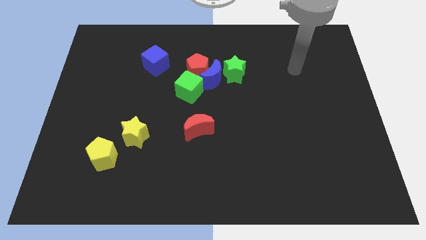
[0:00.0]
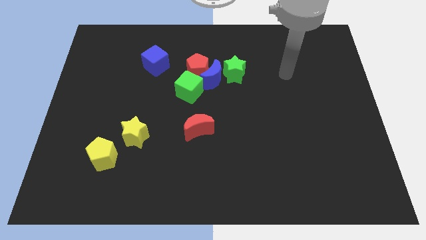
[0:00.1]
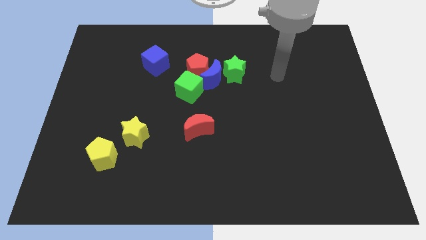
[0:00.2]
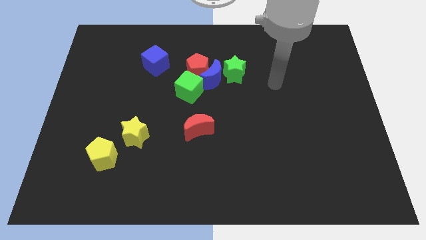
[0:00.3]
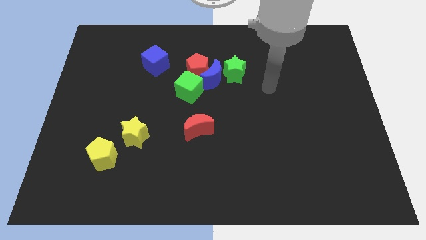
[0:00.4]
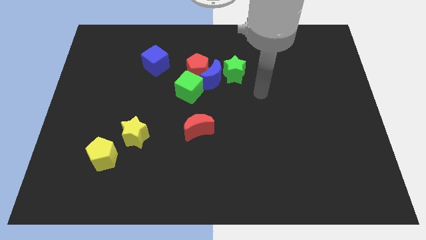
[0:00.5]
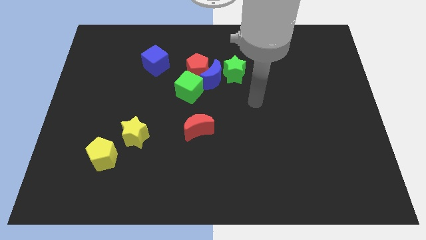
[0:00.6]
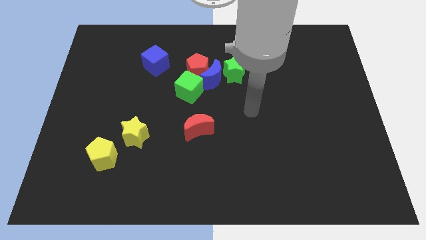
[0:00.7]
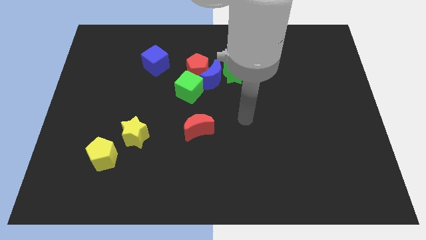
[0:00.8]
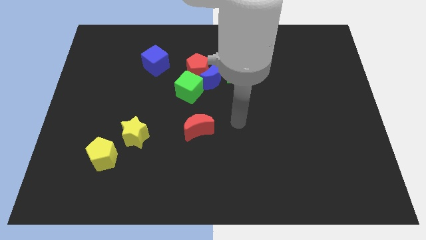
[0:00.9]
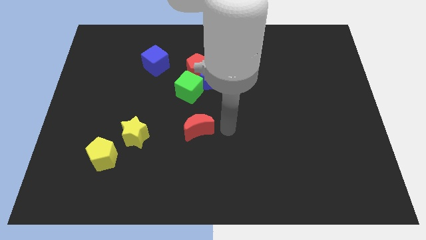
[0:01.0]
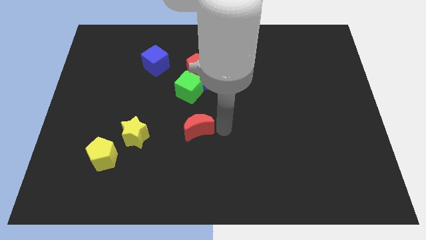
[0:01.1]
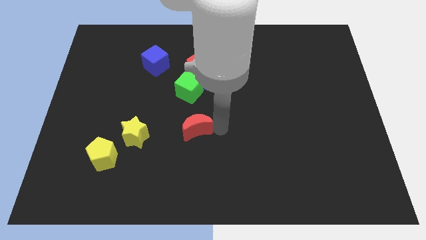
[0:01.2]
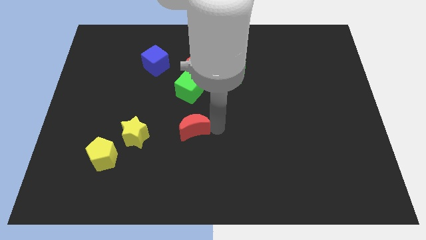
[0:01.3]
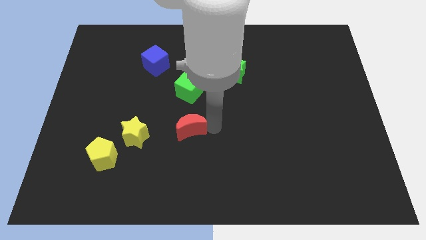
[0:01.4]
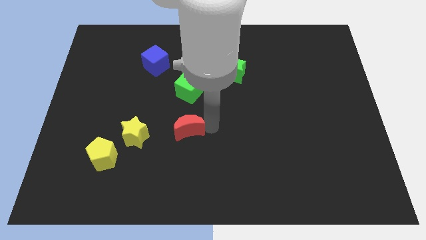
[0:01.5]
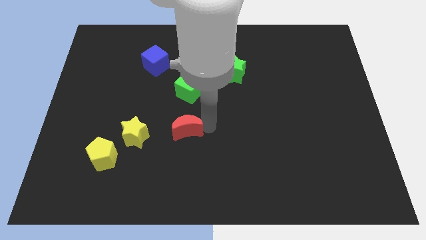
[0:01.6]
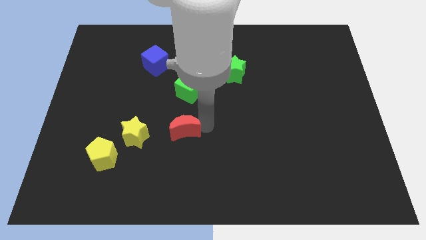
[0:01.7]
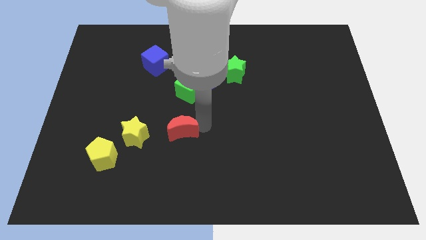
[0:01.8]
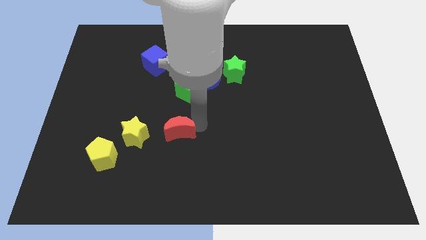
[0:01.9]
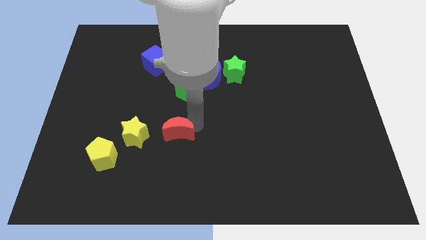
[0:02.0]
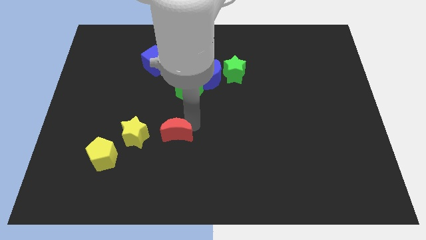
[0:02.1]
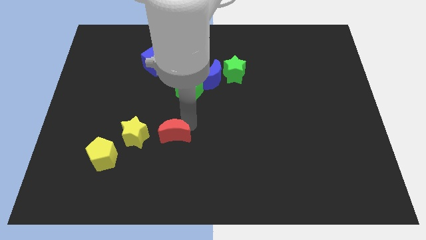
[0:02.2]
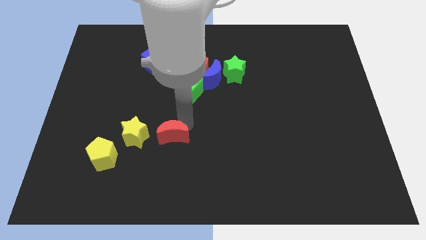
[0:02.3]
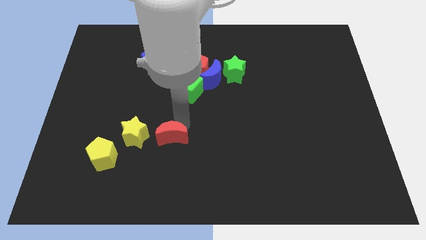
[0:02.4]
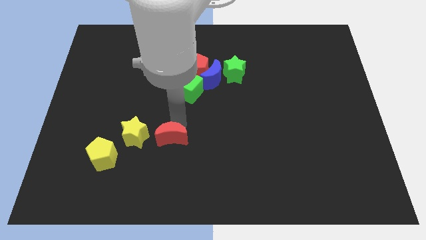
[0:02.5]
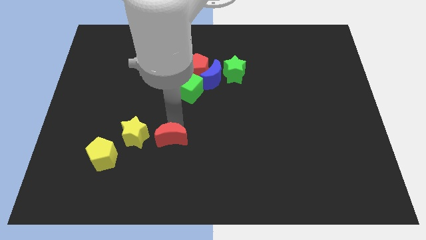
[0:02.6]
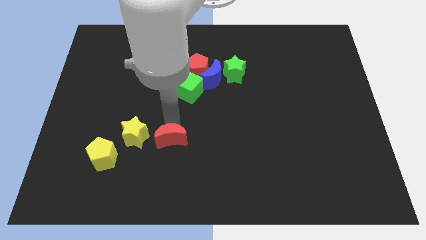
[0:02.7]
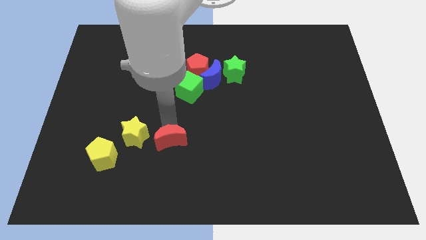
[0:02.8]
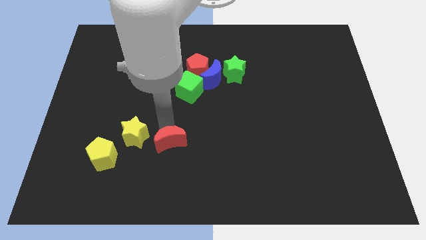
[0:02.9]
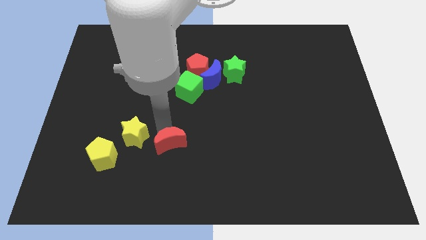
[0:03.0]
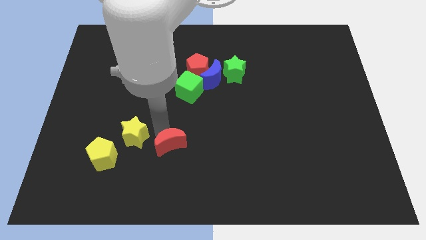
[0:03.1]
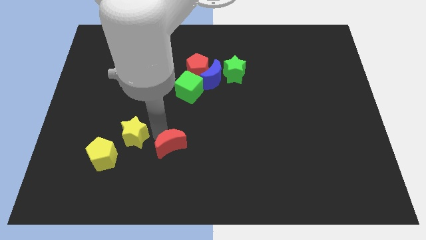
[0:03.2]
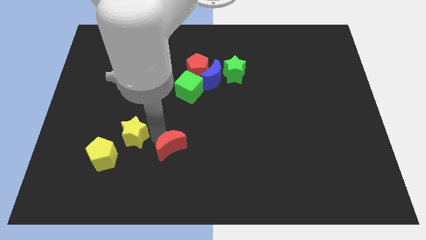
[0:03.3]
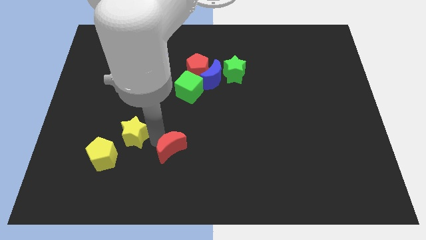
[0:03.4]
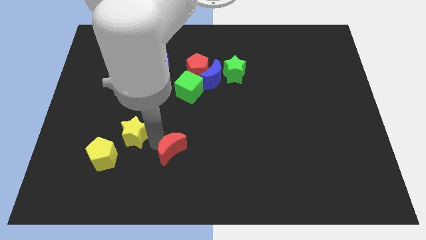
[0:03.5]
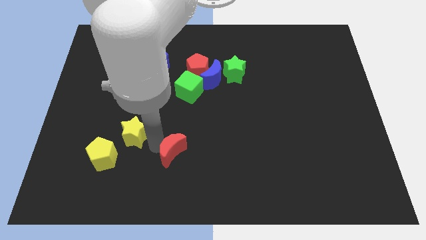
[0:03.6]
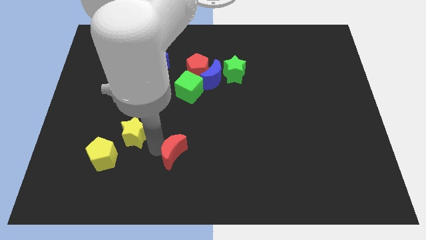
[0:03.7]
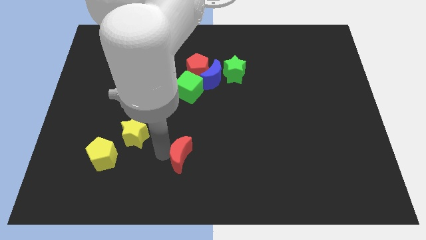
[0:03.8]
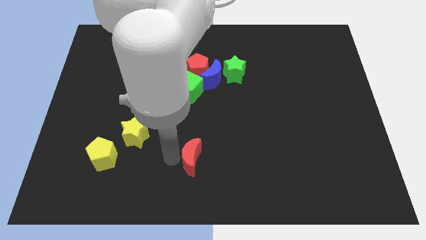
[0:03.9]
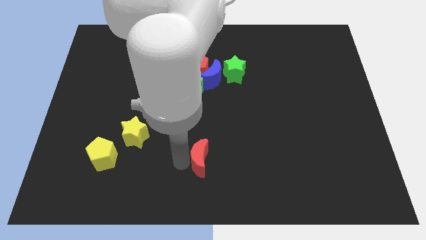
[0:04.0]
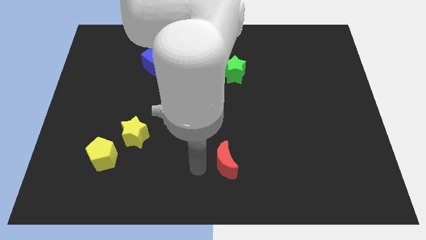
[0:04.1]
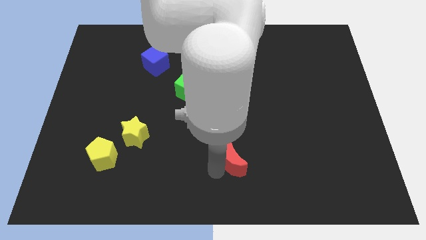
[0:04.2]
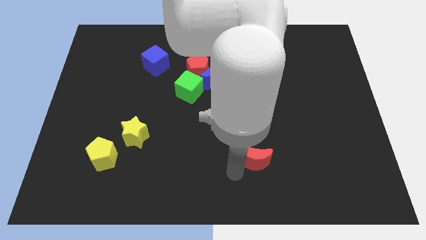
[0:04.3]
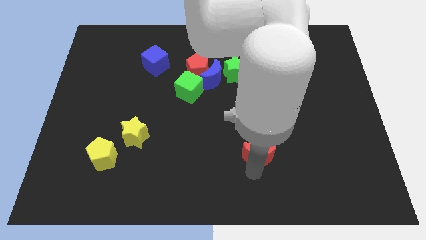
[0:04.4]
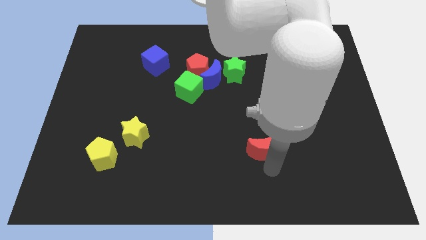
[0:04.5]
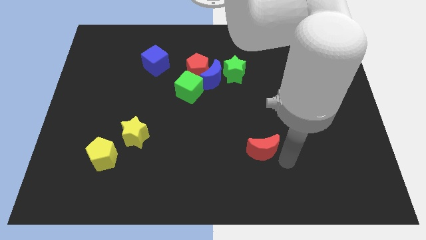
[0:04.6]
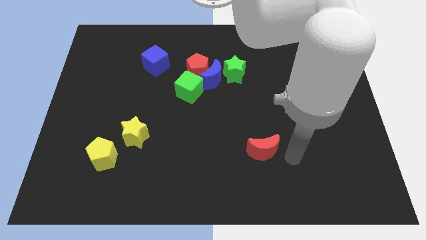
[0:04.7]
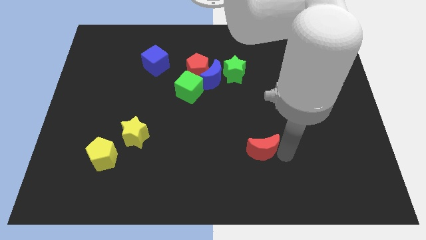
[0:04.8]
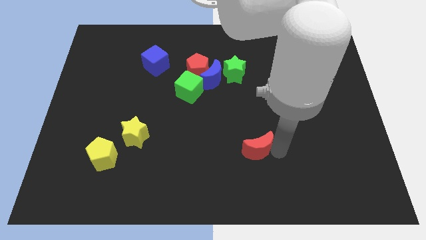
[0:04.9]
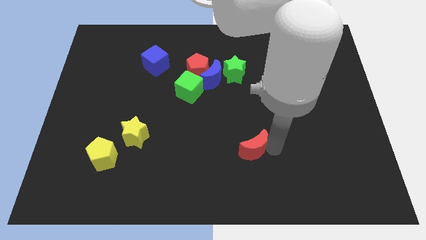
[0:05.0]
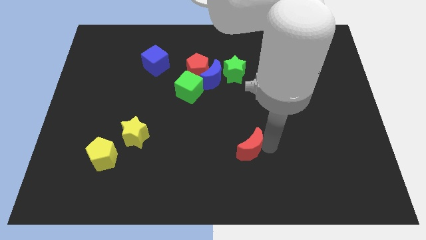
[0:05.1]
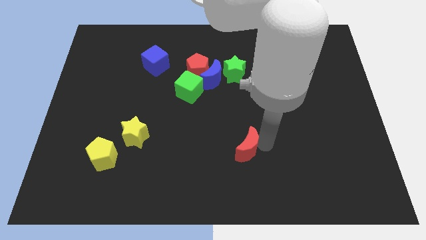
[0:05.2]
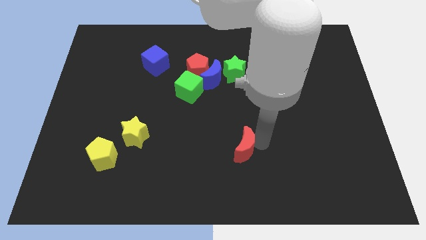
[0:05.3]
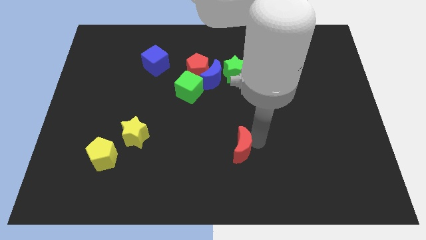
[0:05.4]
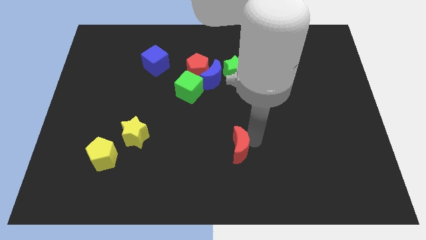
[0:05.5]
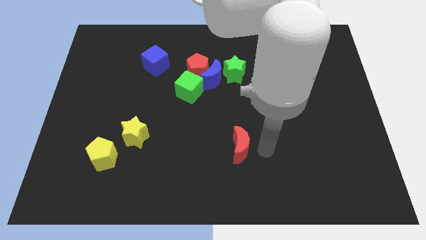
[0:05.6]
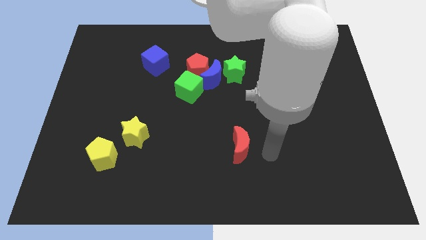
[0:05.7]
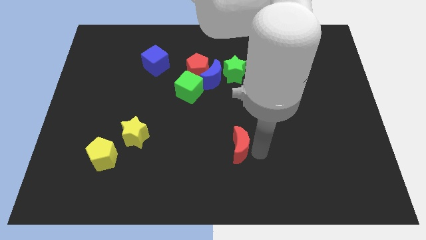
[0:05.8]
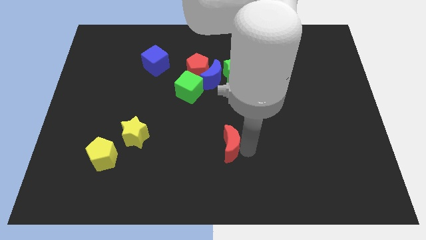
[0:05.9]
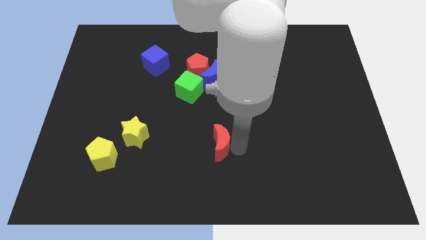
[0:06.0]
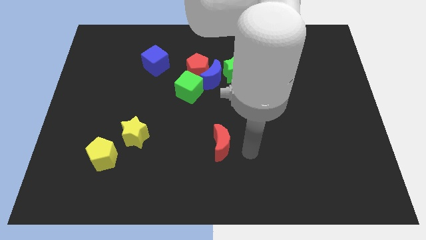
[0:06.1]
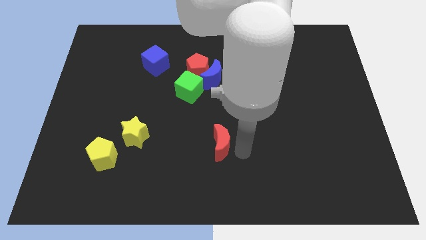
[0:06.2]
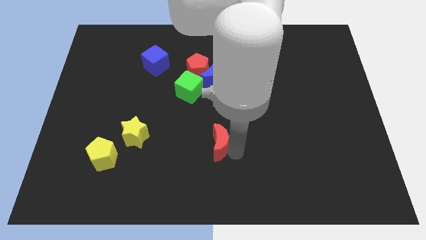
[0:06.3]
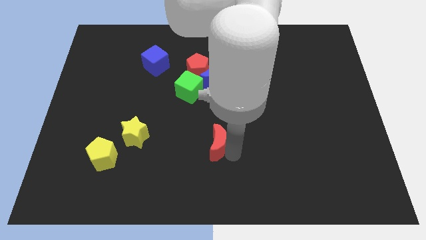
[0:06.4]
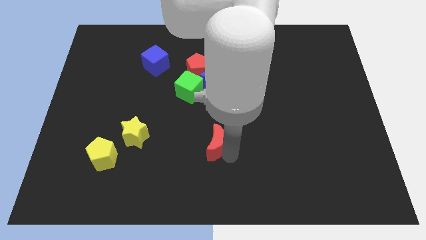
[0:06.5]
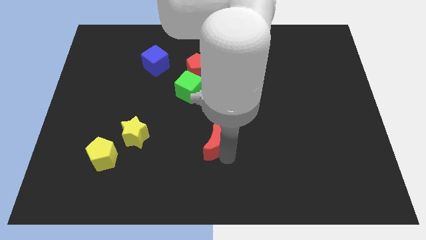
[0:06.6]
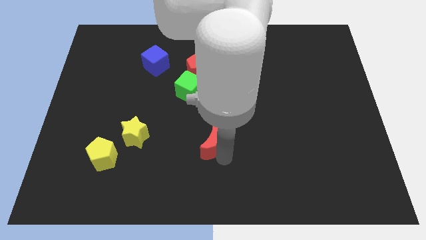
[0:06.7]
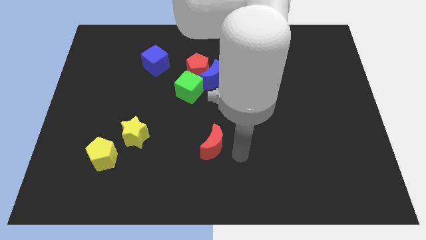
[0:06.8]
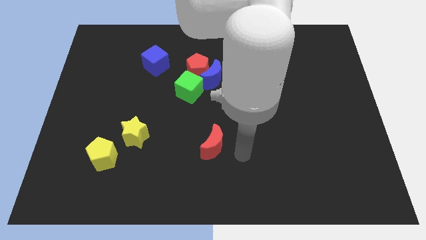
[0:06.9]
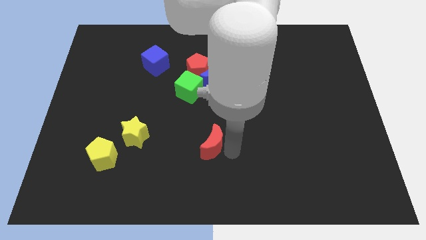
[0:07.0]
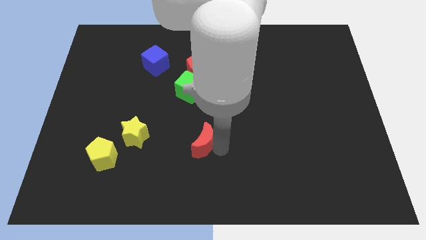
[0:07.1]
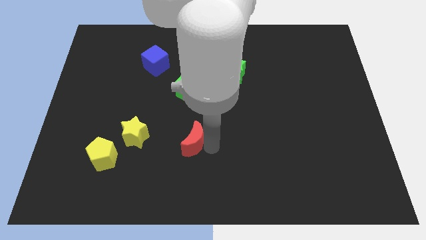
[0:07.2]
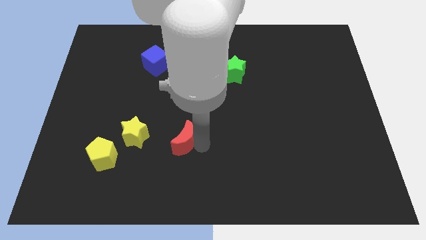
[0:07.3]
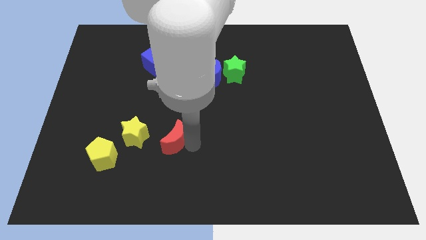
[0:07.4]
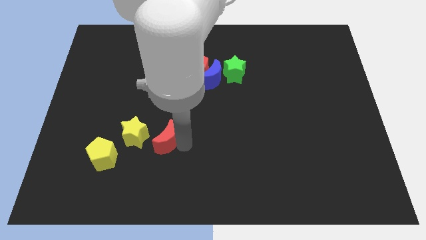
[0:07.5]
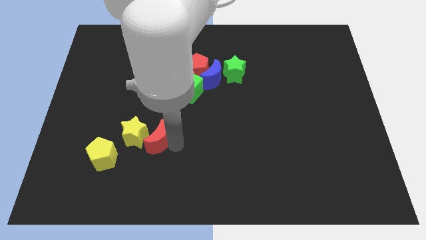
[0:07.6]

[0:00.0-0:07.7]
move the red moon towards the yellow star

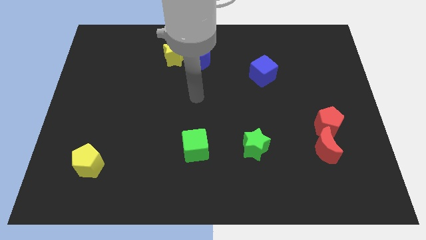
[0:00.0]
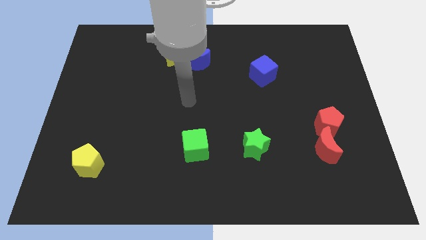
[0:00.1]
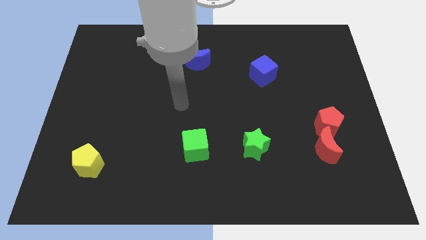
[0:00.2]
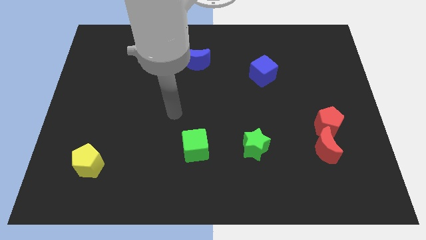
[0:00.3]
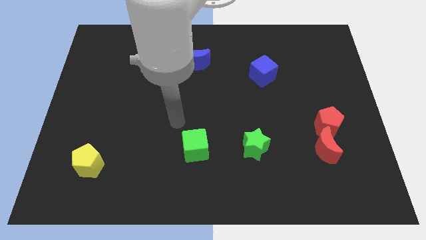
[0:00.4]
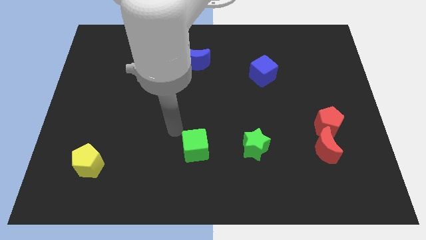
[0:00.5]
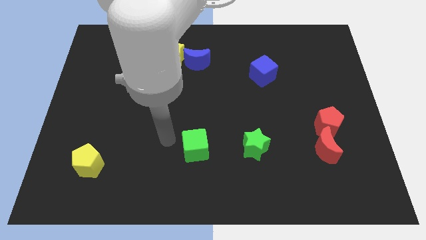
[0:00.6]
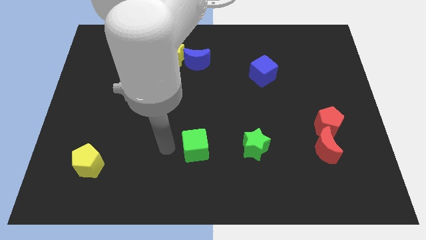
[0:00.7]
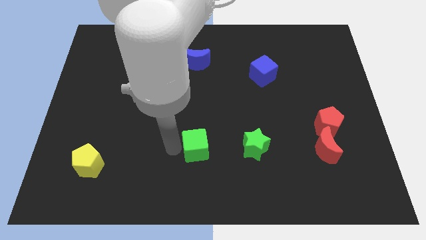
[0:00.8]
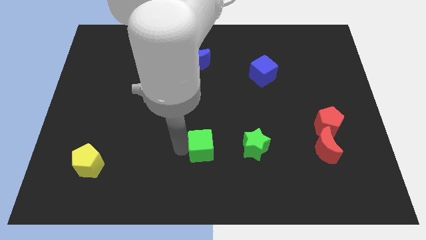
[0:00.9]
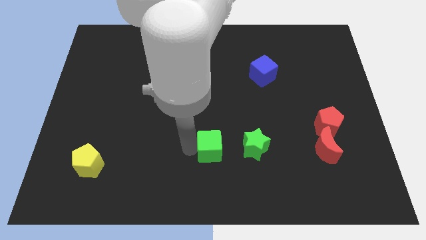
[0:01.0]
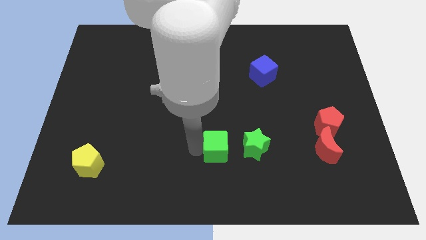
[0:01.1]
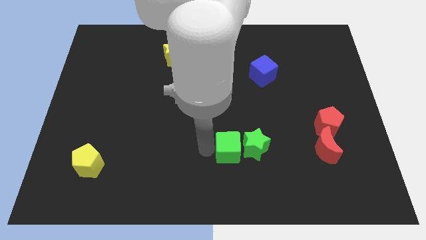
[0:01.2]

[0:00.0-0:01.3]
slide the green cube towards the green star
